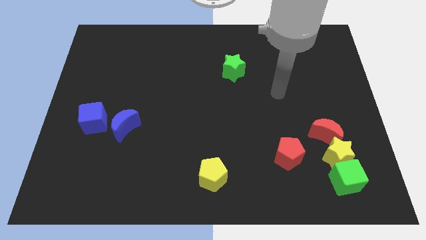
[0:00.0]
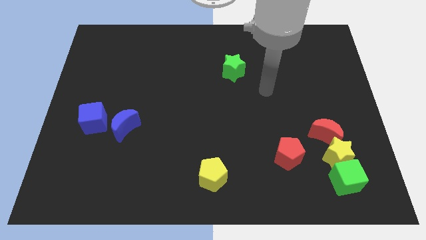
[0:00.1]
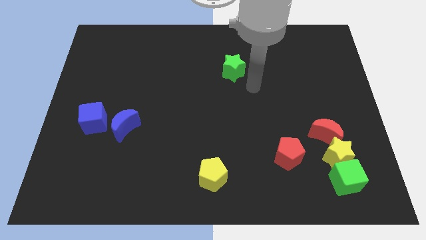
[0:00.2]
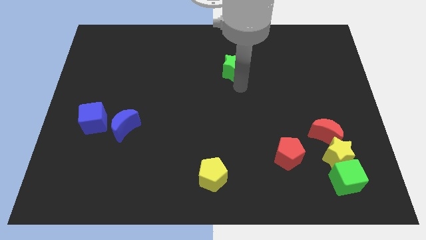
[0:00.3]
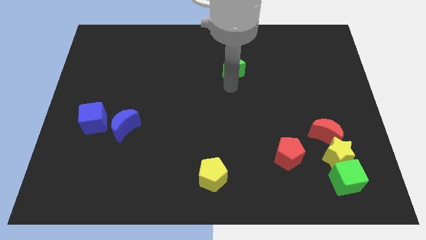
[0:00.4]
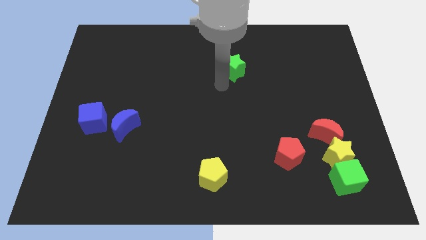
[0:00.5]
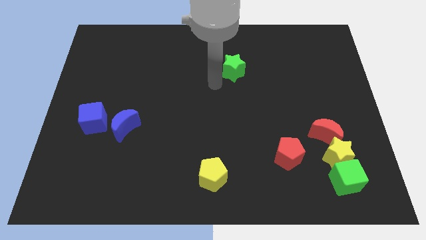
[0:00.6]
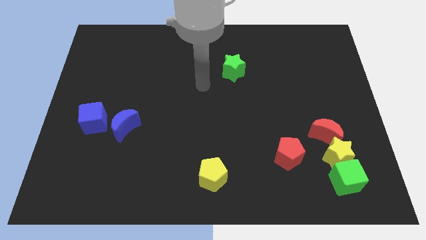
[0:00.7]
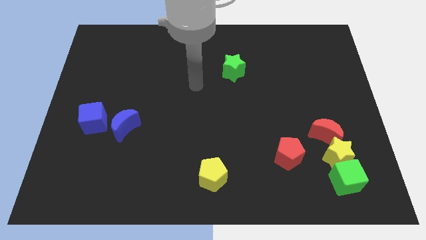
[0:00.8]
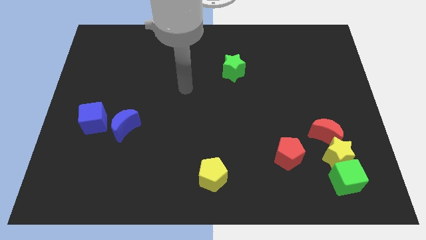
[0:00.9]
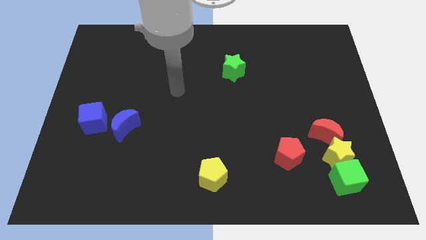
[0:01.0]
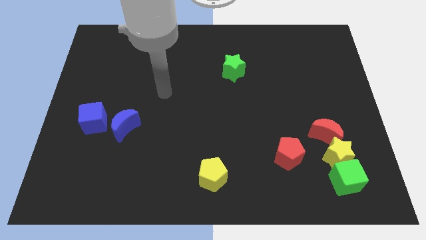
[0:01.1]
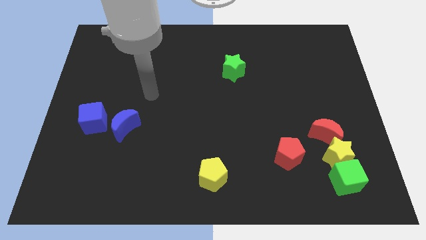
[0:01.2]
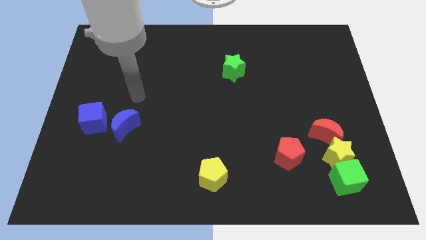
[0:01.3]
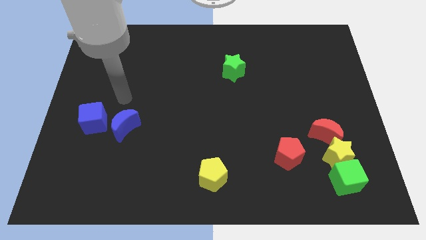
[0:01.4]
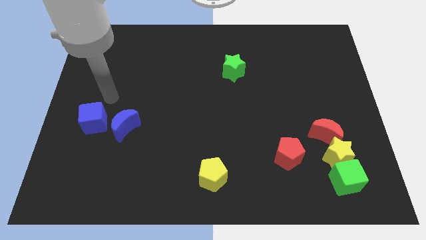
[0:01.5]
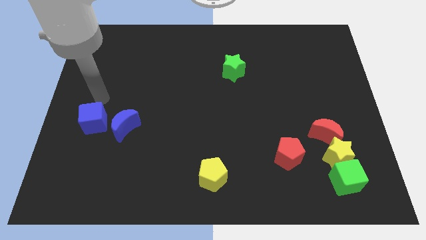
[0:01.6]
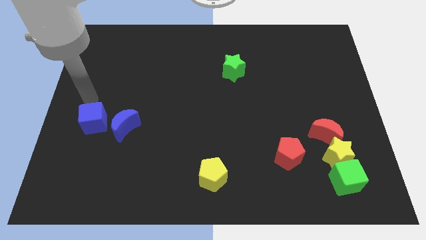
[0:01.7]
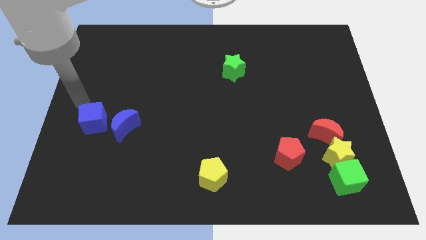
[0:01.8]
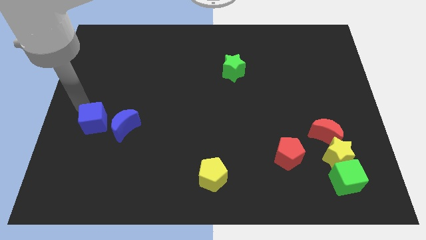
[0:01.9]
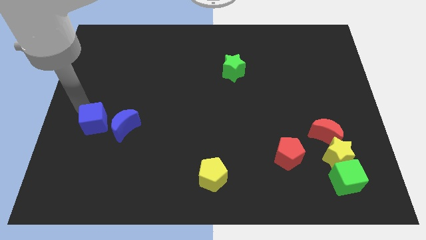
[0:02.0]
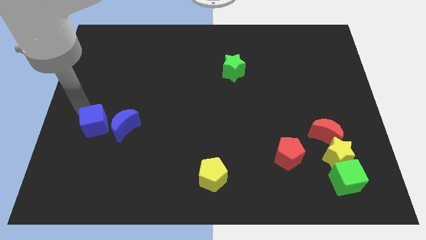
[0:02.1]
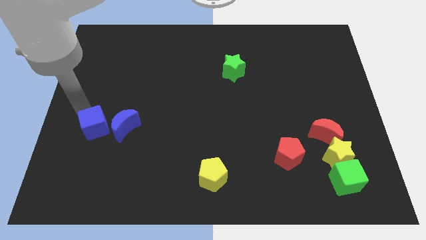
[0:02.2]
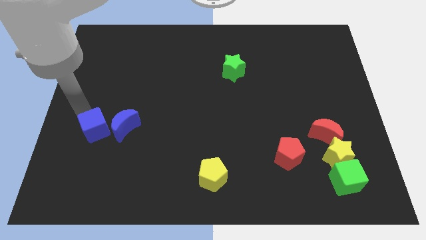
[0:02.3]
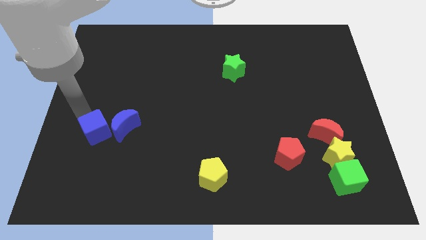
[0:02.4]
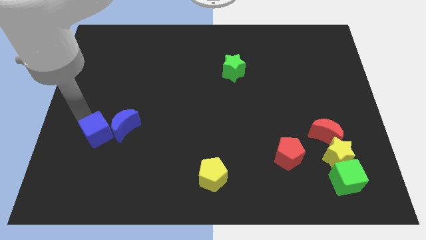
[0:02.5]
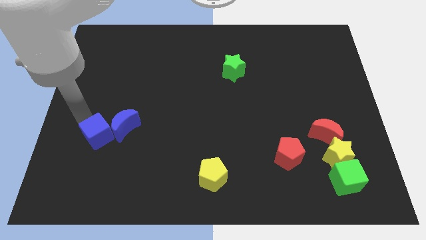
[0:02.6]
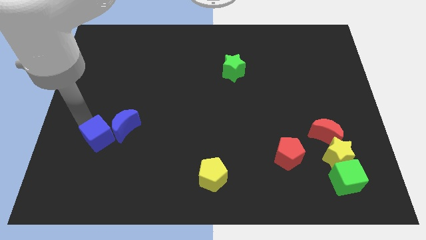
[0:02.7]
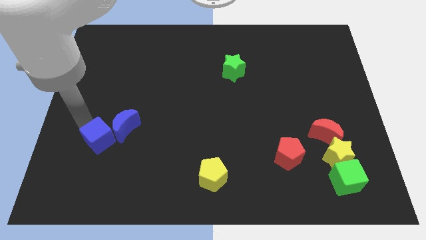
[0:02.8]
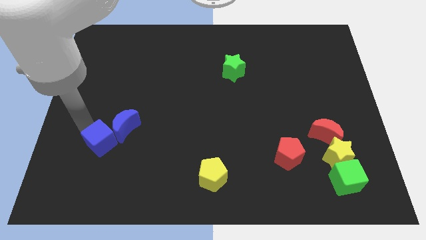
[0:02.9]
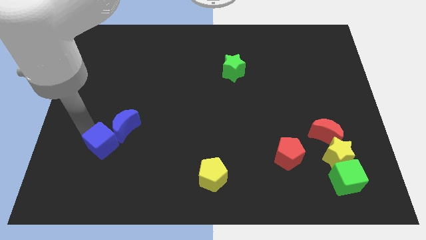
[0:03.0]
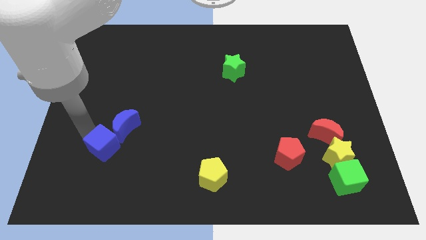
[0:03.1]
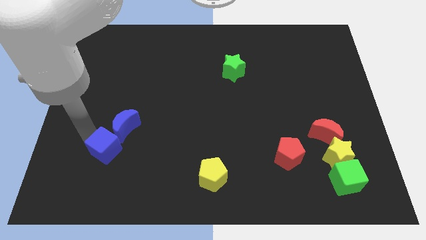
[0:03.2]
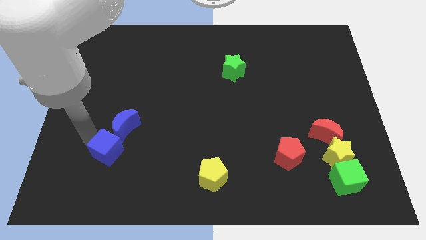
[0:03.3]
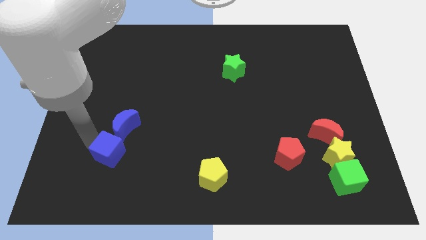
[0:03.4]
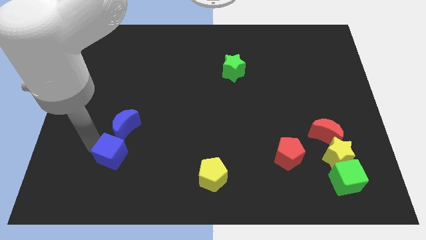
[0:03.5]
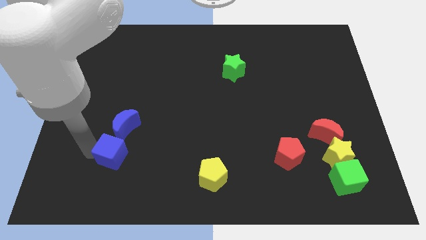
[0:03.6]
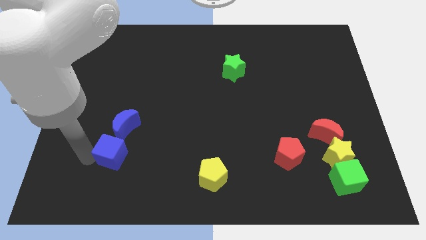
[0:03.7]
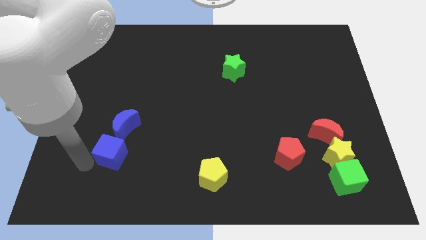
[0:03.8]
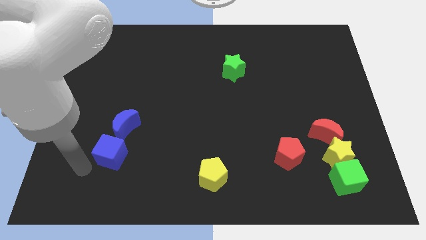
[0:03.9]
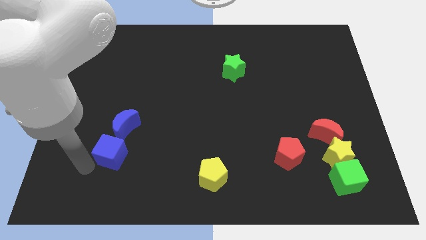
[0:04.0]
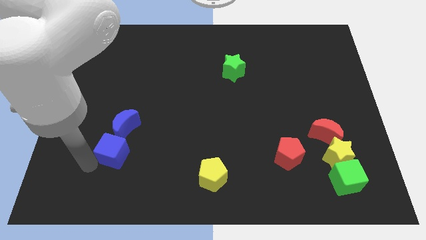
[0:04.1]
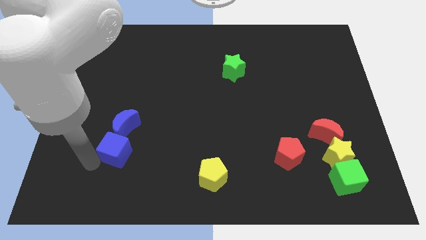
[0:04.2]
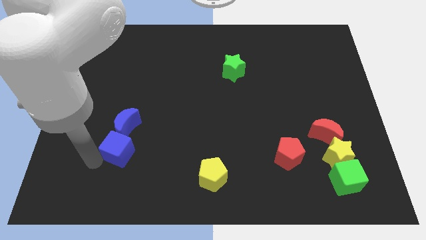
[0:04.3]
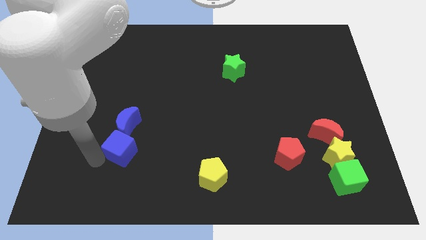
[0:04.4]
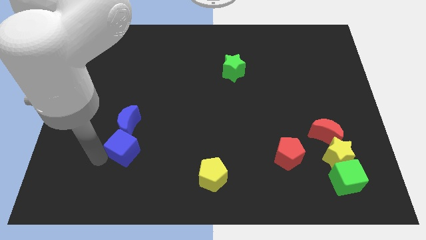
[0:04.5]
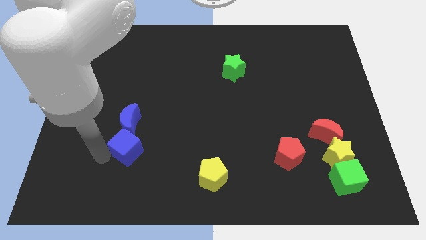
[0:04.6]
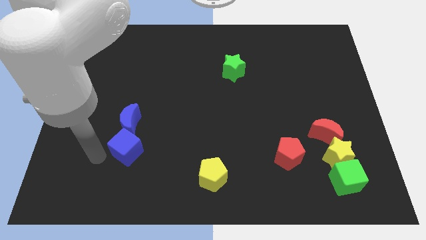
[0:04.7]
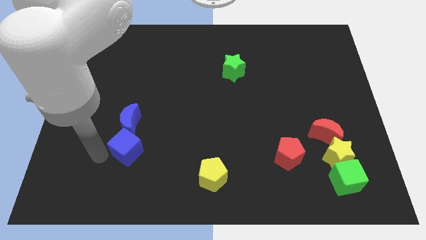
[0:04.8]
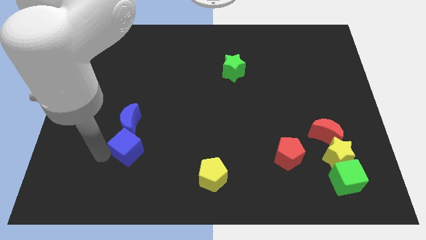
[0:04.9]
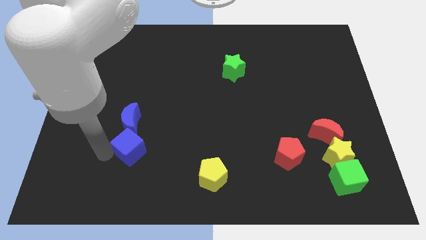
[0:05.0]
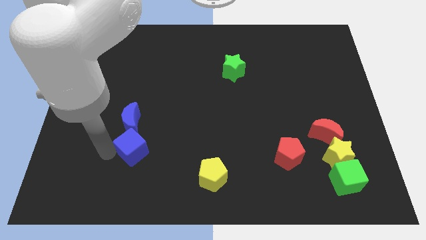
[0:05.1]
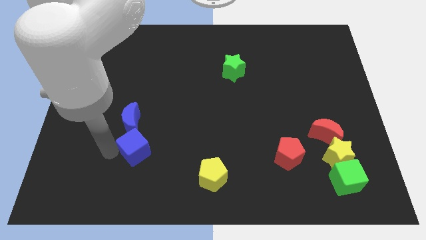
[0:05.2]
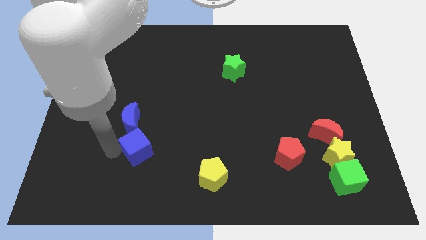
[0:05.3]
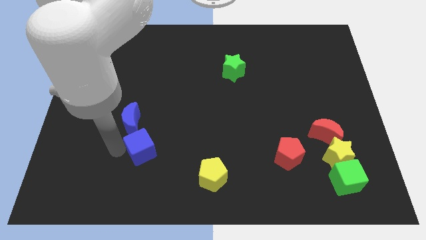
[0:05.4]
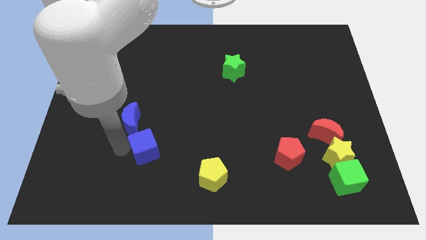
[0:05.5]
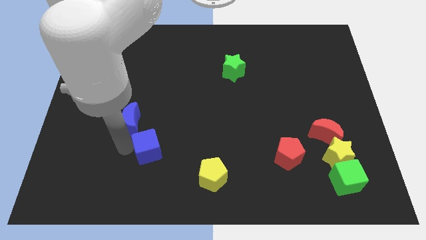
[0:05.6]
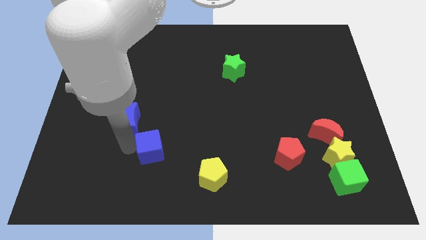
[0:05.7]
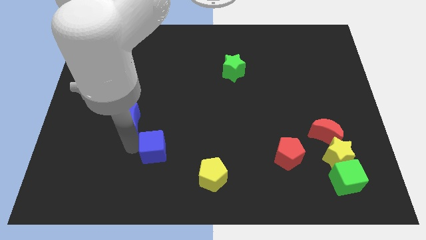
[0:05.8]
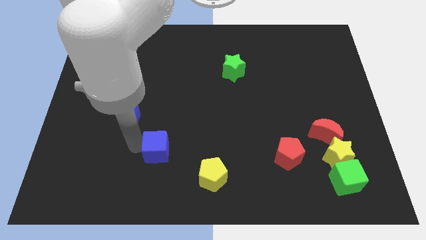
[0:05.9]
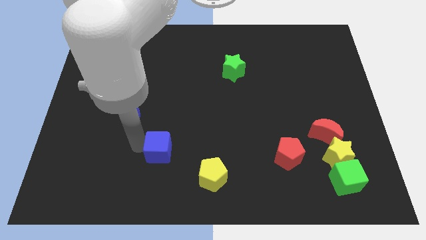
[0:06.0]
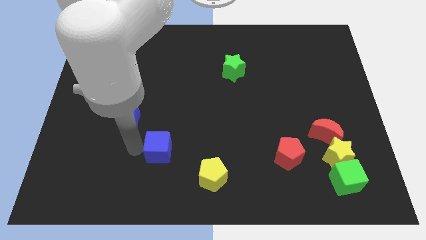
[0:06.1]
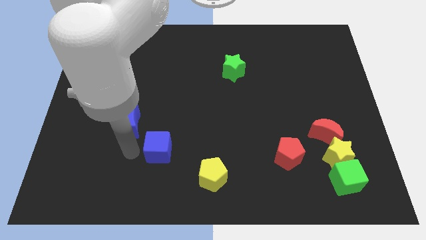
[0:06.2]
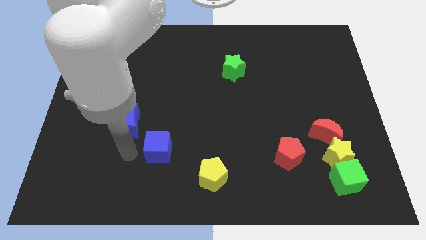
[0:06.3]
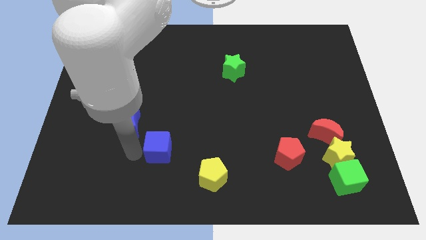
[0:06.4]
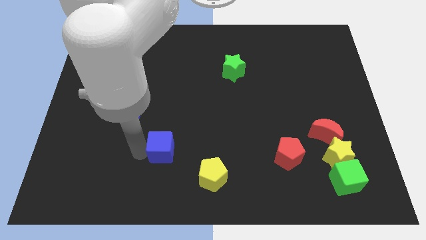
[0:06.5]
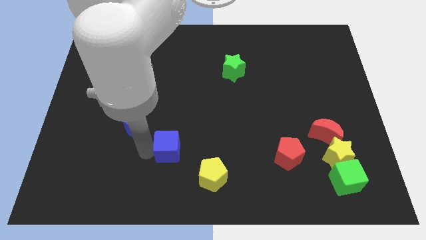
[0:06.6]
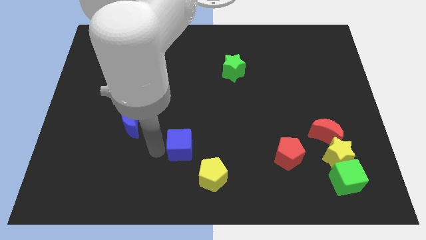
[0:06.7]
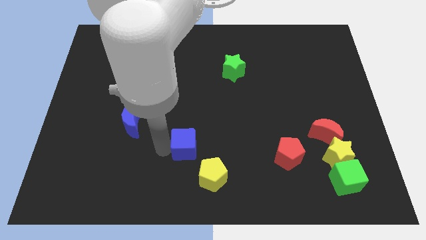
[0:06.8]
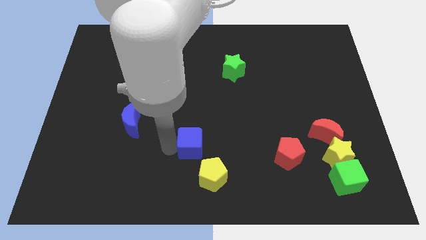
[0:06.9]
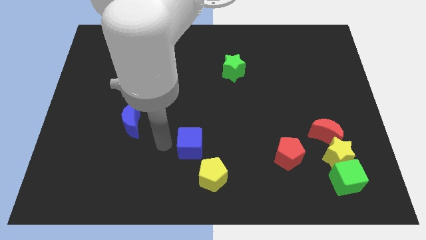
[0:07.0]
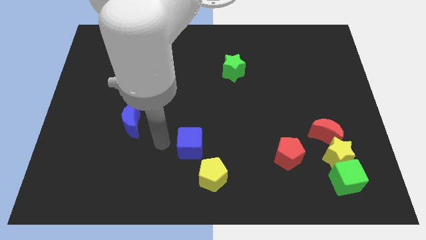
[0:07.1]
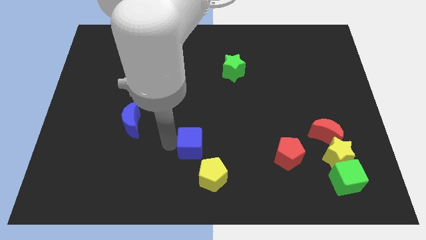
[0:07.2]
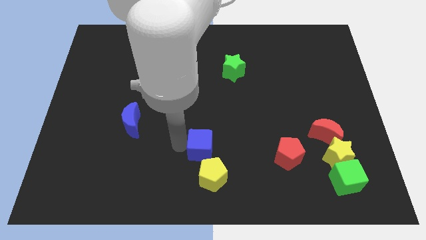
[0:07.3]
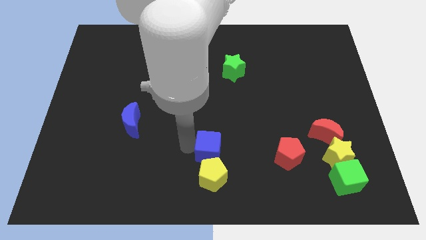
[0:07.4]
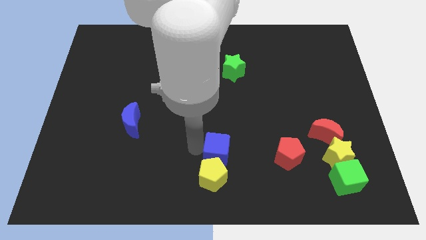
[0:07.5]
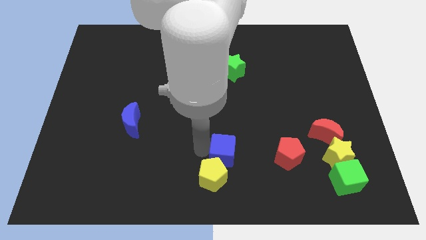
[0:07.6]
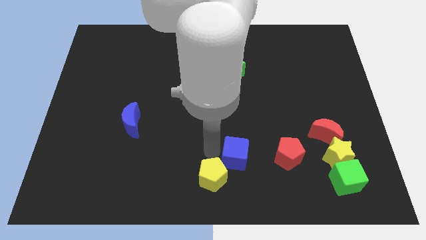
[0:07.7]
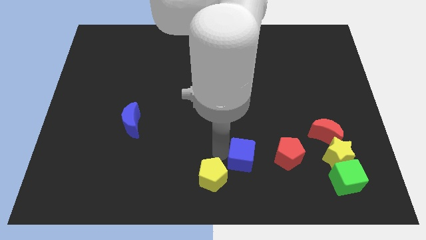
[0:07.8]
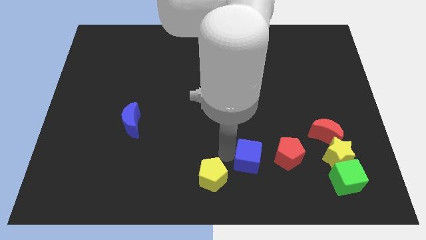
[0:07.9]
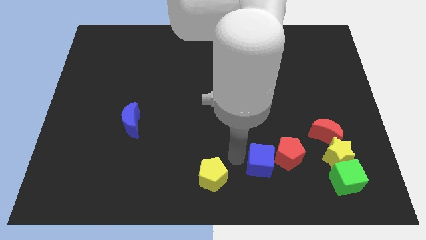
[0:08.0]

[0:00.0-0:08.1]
put the blue cube towards the red pentagon
